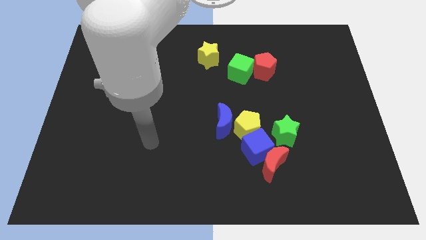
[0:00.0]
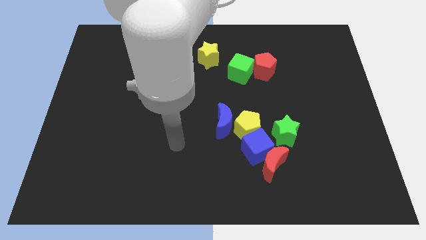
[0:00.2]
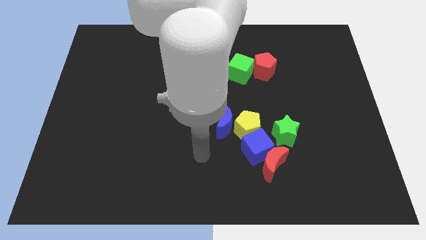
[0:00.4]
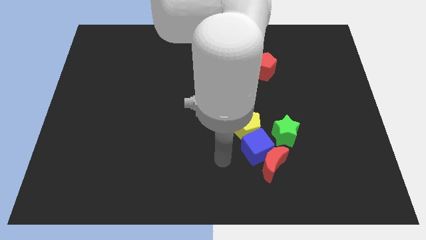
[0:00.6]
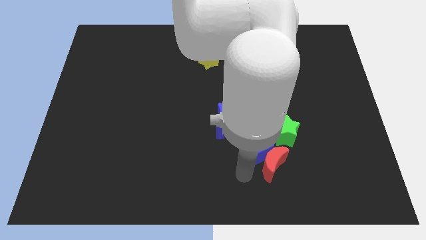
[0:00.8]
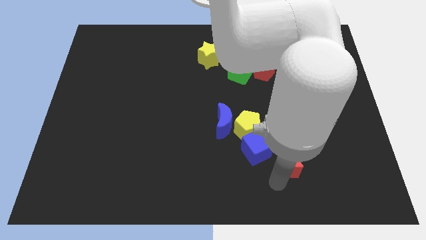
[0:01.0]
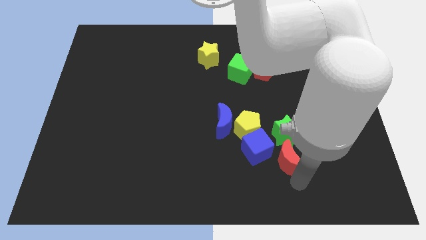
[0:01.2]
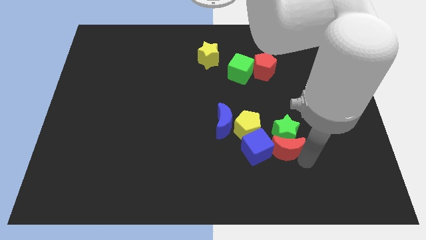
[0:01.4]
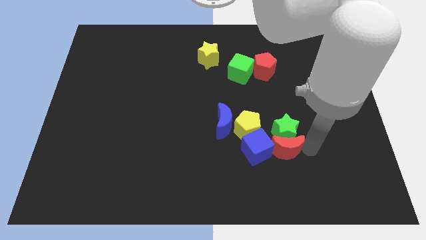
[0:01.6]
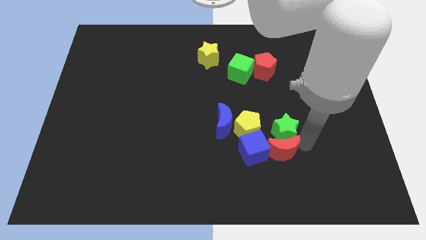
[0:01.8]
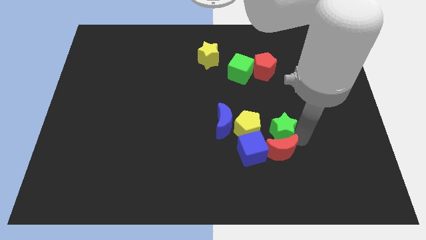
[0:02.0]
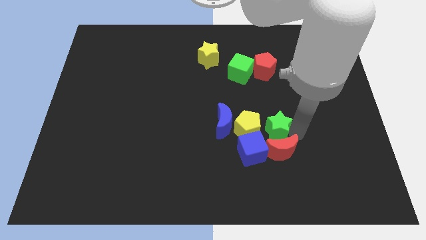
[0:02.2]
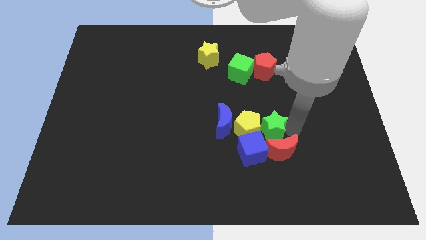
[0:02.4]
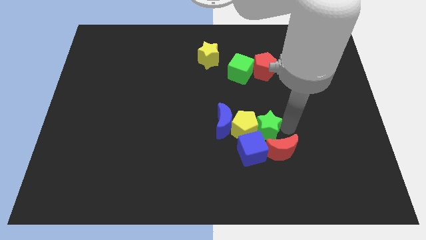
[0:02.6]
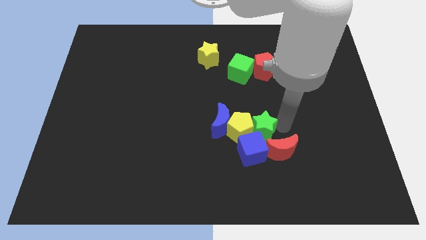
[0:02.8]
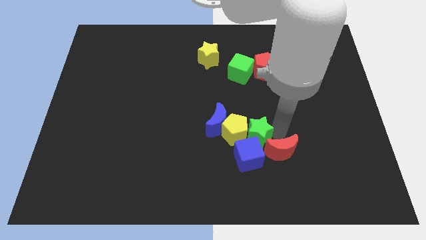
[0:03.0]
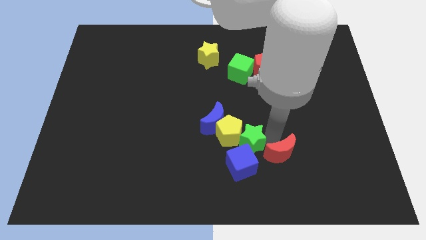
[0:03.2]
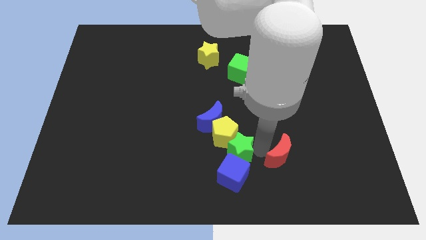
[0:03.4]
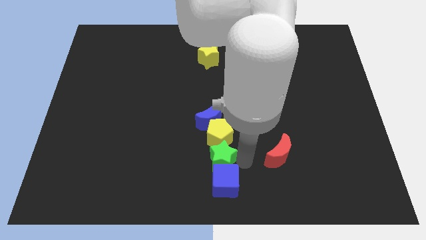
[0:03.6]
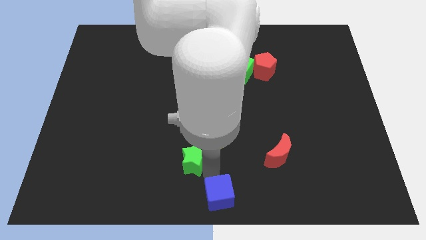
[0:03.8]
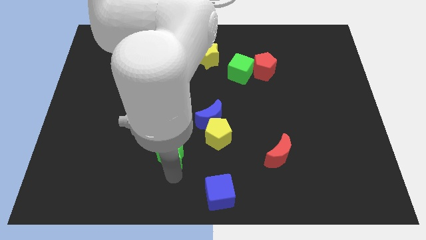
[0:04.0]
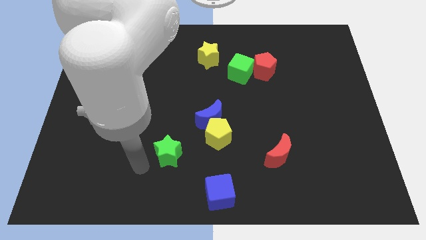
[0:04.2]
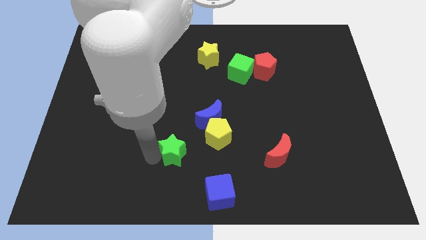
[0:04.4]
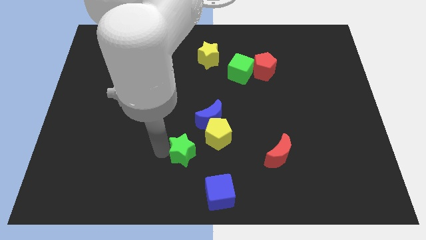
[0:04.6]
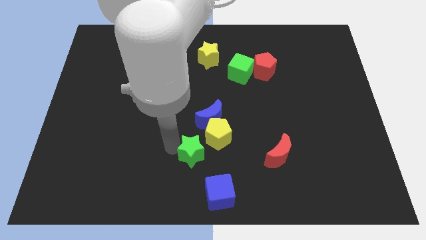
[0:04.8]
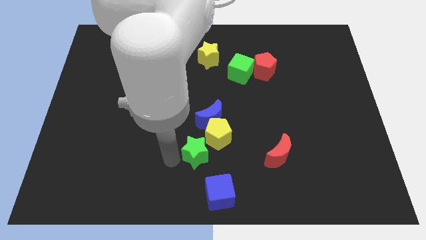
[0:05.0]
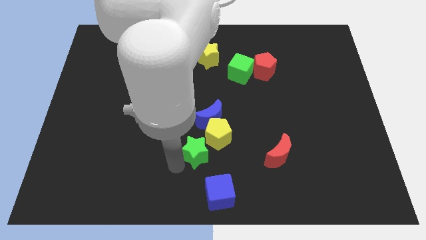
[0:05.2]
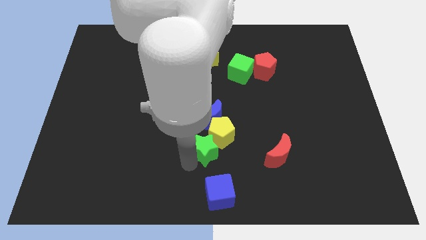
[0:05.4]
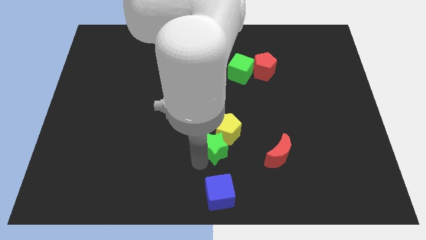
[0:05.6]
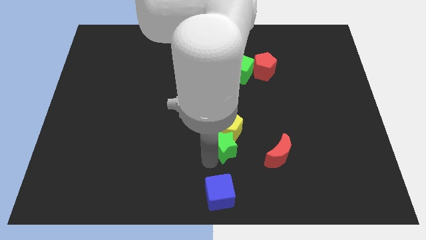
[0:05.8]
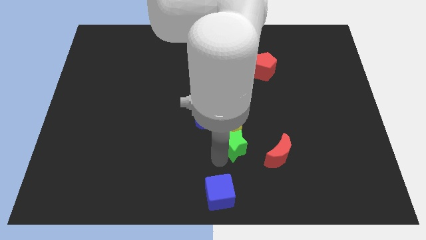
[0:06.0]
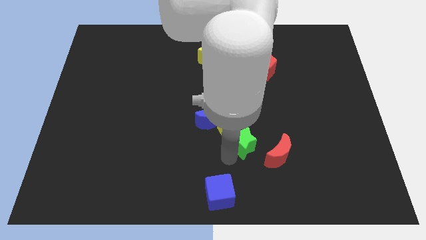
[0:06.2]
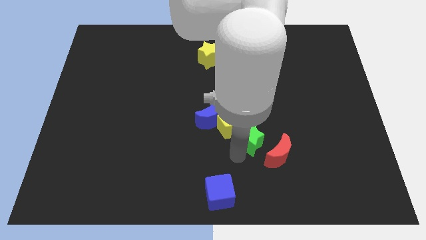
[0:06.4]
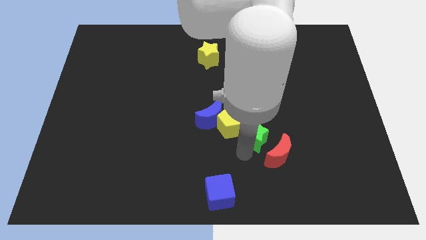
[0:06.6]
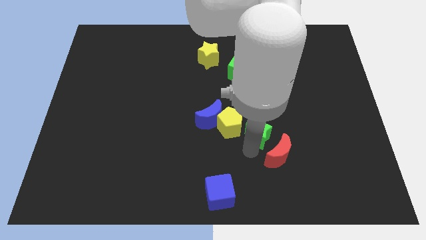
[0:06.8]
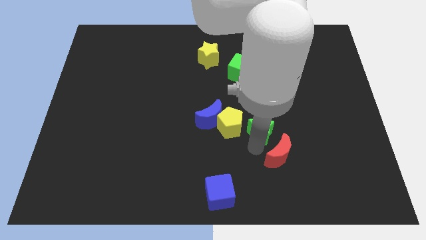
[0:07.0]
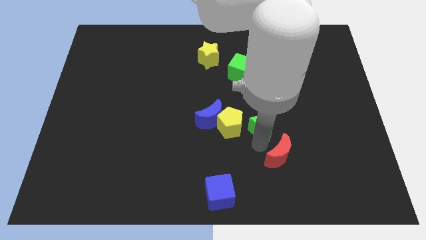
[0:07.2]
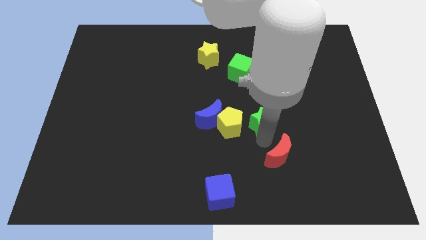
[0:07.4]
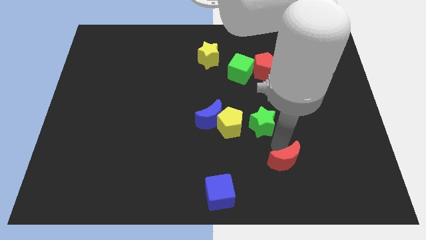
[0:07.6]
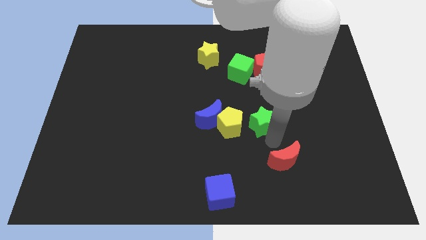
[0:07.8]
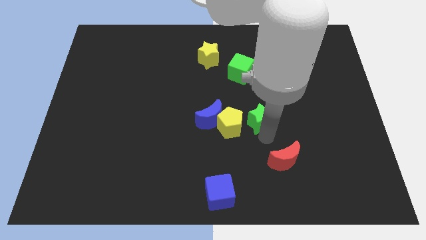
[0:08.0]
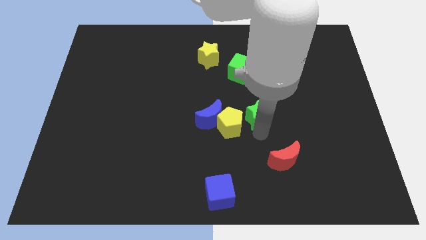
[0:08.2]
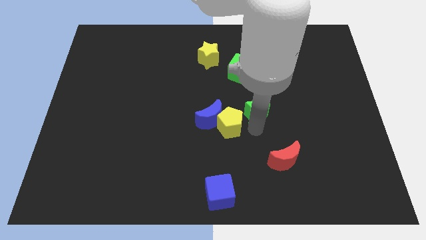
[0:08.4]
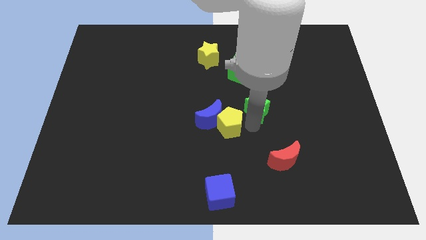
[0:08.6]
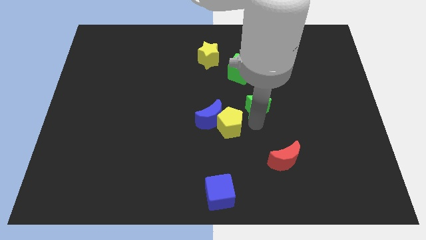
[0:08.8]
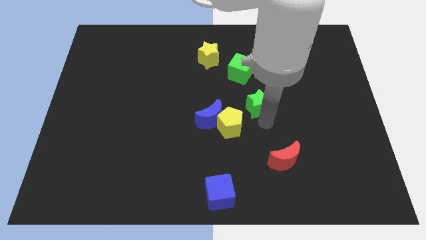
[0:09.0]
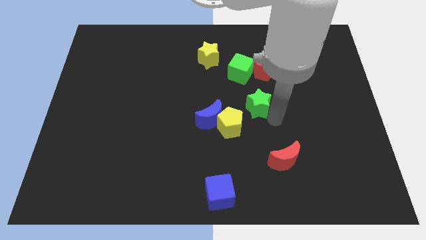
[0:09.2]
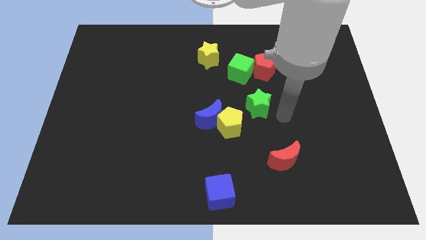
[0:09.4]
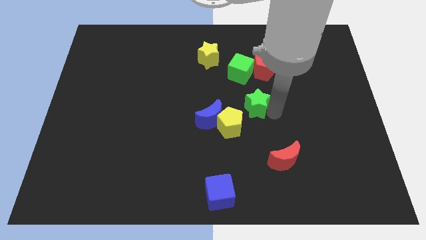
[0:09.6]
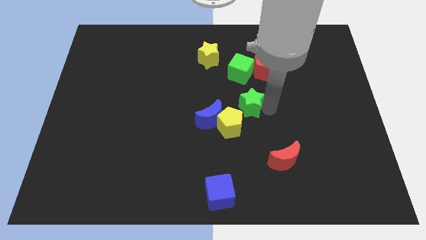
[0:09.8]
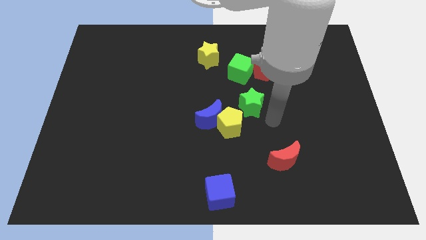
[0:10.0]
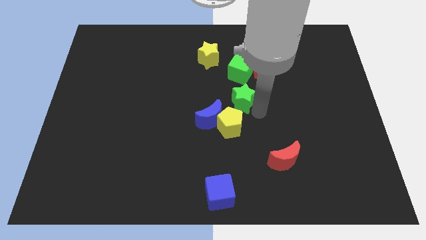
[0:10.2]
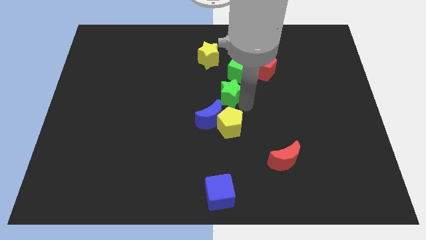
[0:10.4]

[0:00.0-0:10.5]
slide the green star to the bottom left side of the green cube
